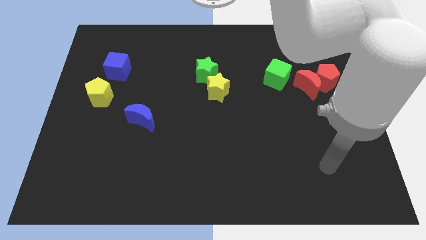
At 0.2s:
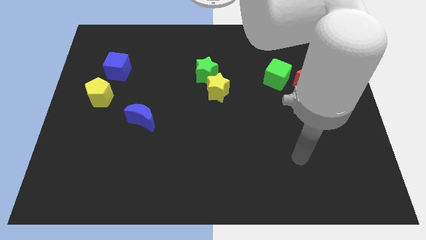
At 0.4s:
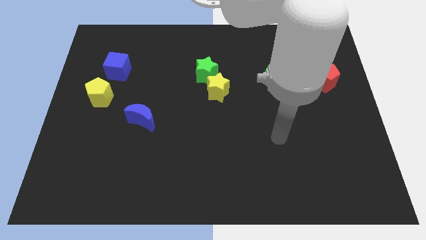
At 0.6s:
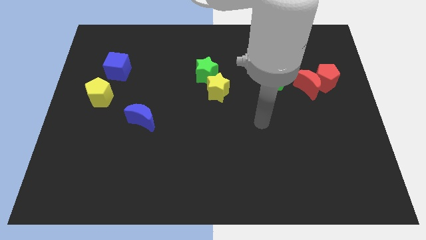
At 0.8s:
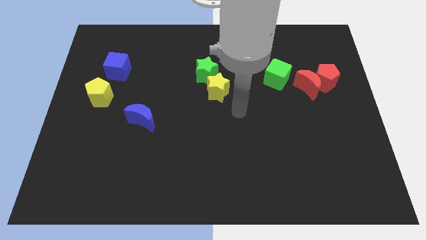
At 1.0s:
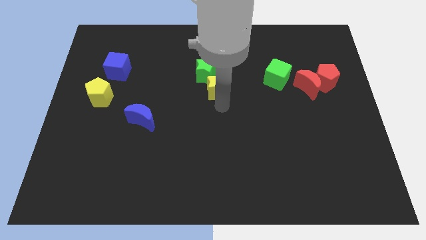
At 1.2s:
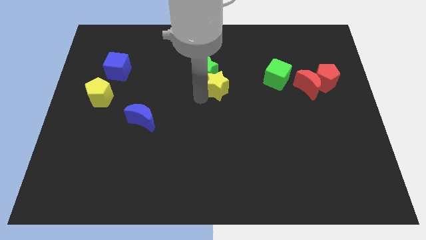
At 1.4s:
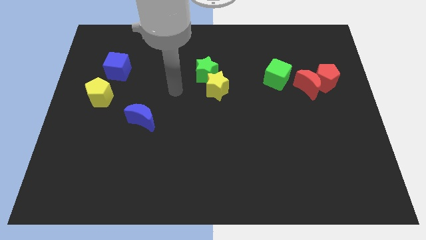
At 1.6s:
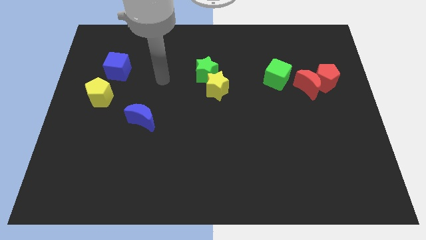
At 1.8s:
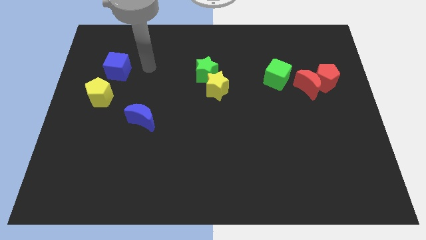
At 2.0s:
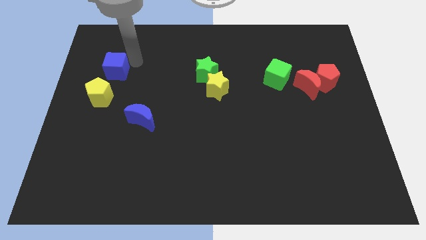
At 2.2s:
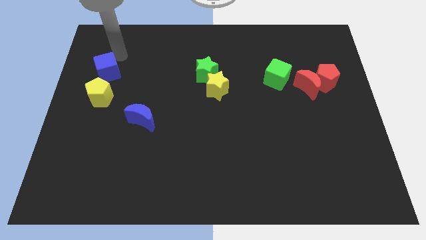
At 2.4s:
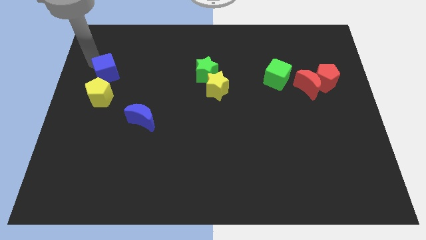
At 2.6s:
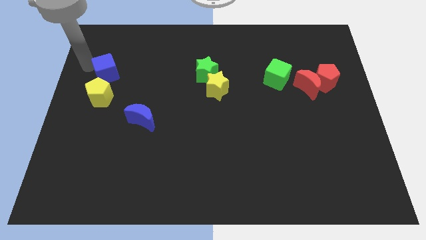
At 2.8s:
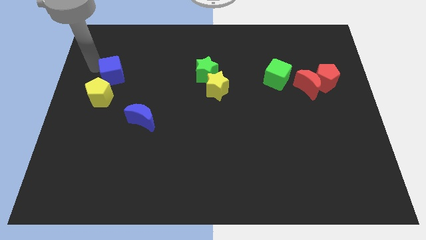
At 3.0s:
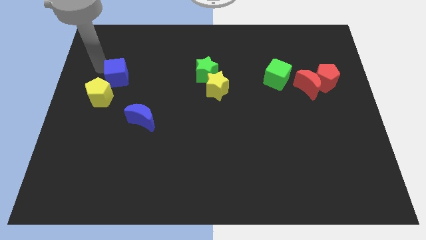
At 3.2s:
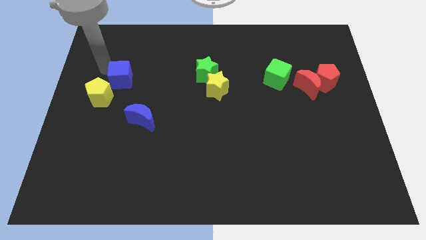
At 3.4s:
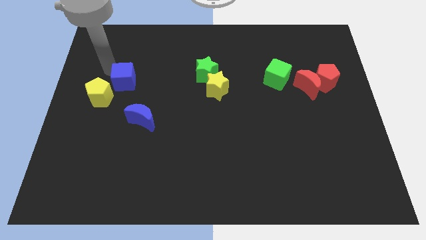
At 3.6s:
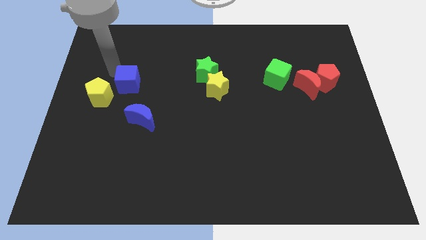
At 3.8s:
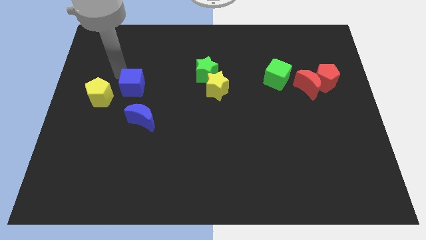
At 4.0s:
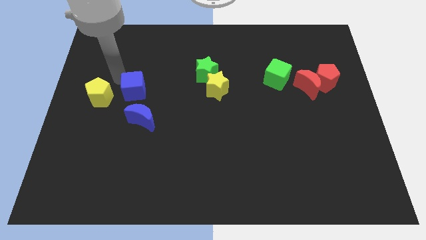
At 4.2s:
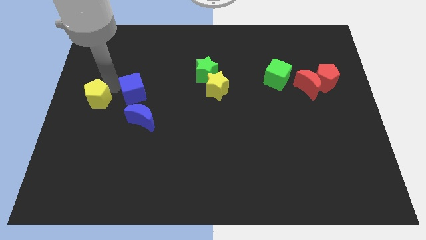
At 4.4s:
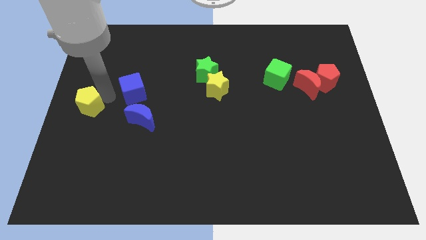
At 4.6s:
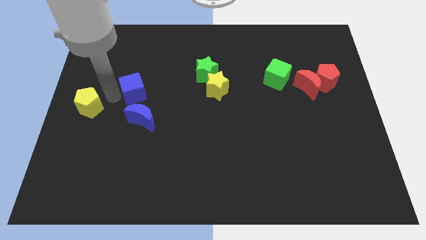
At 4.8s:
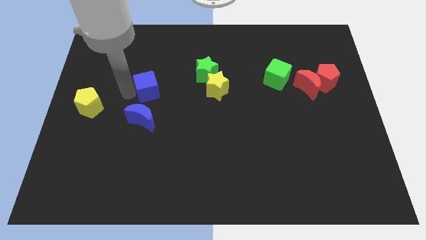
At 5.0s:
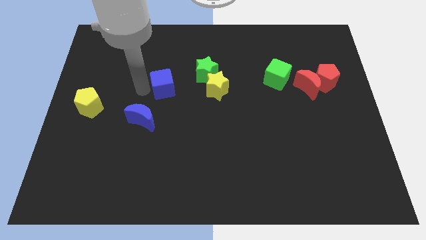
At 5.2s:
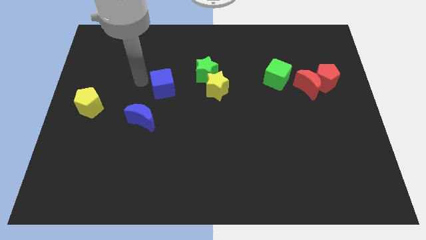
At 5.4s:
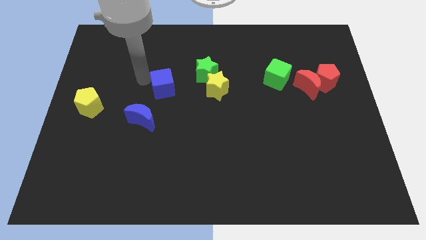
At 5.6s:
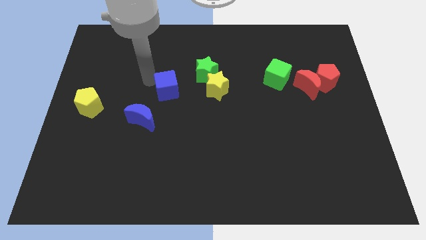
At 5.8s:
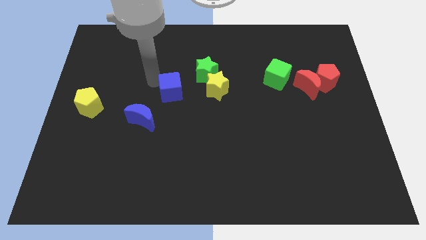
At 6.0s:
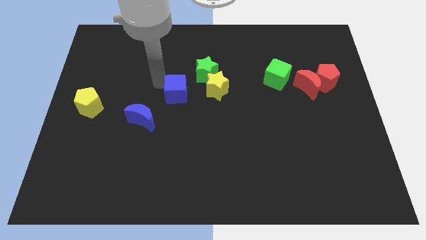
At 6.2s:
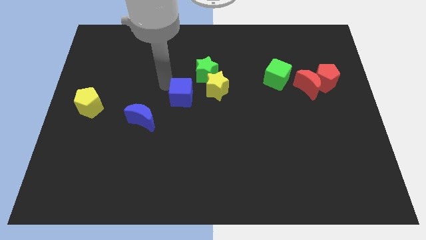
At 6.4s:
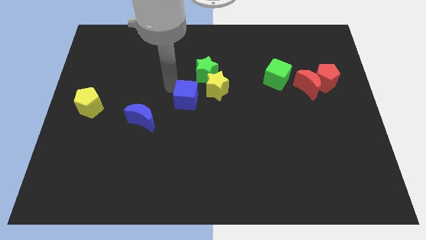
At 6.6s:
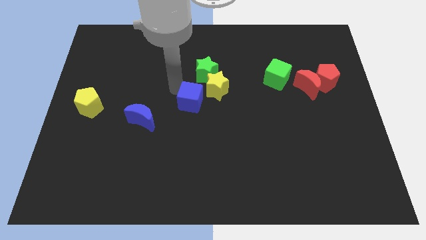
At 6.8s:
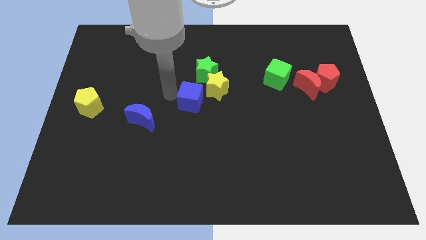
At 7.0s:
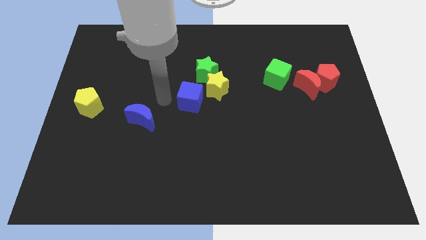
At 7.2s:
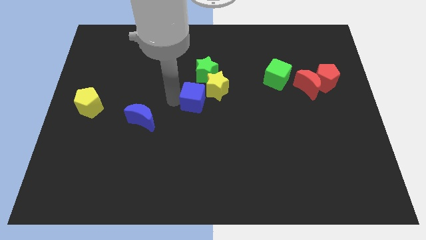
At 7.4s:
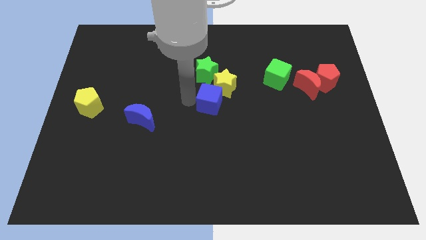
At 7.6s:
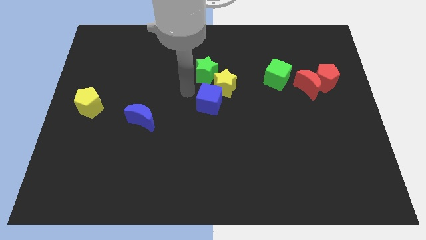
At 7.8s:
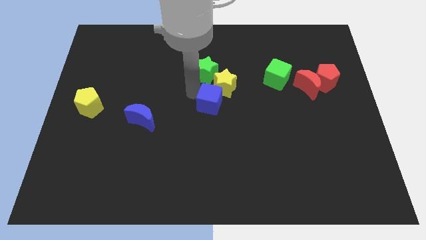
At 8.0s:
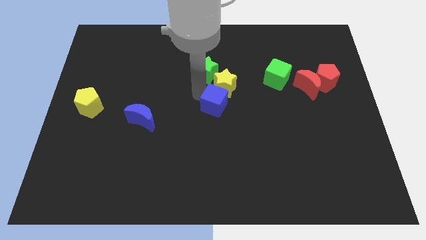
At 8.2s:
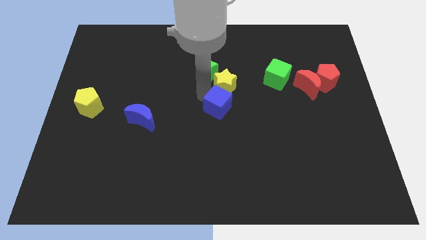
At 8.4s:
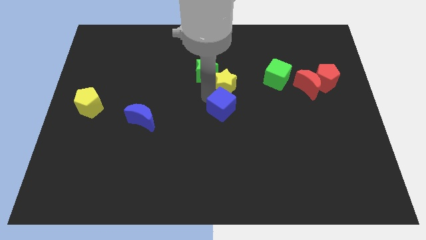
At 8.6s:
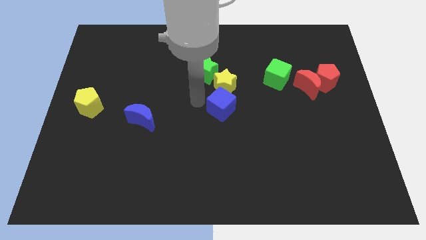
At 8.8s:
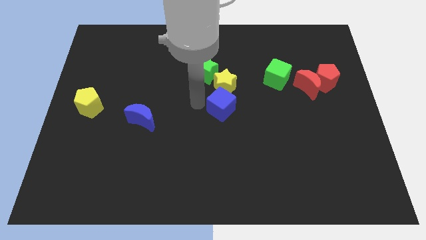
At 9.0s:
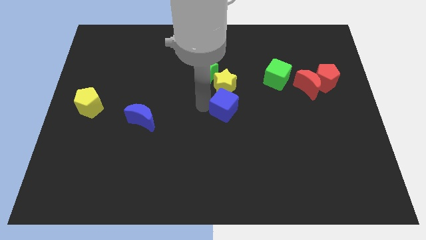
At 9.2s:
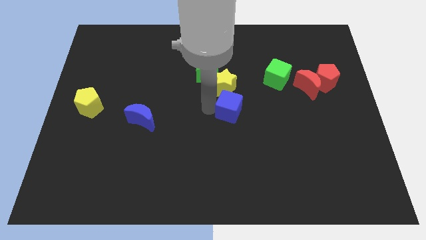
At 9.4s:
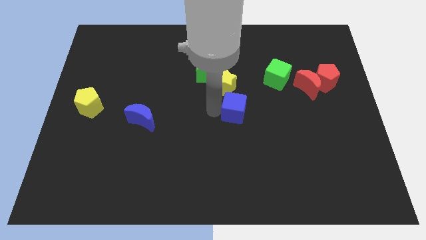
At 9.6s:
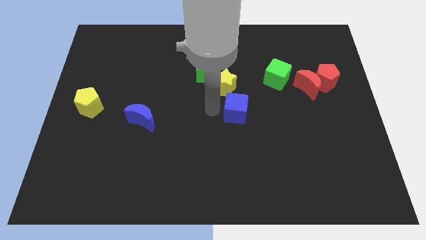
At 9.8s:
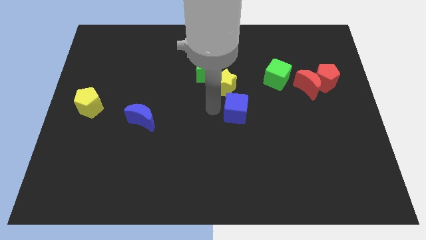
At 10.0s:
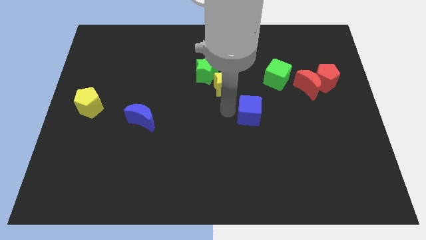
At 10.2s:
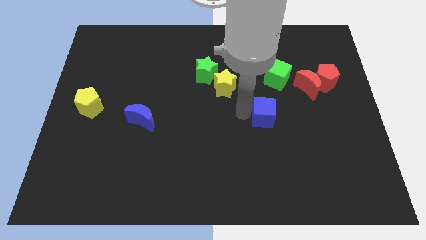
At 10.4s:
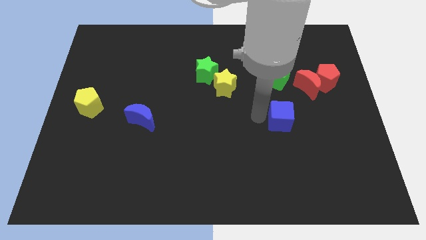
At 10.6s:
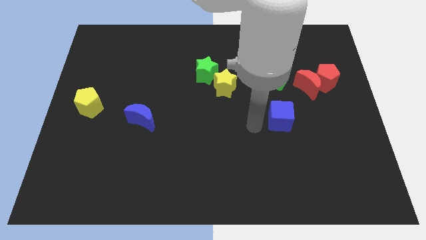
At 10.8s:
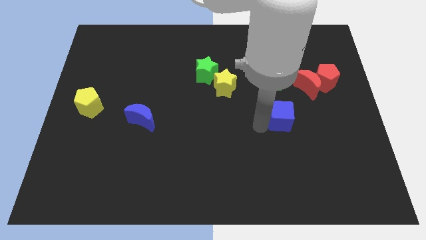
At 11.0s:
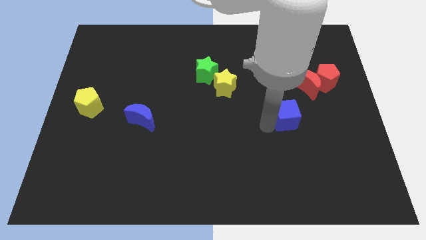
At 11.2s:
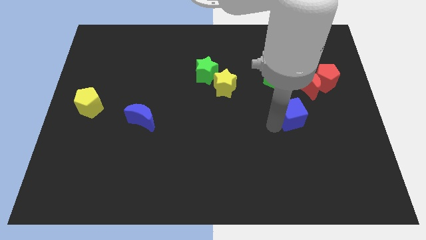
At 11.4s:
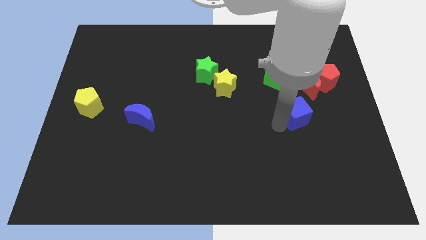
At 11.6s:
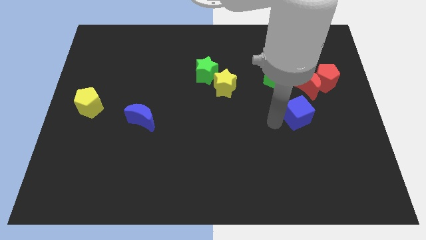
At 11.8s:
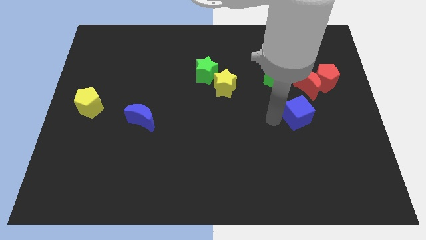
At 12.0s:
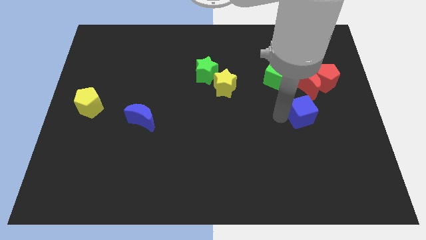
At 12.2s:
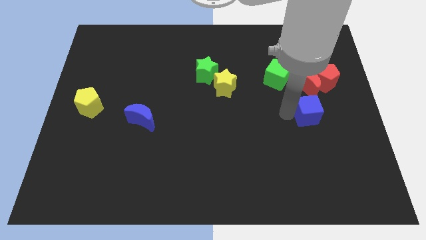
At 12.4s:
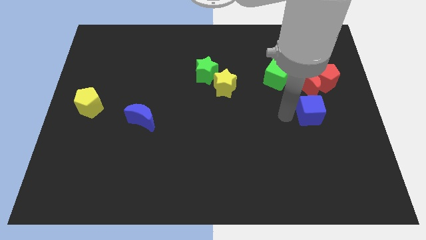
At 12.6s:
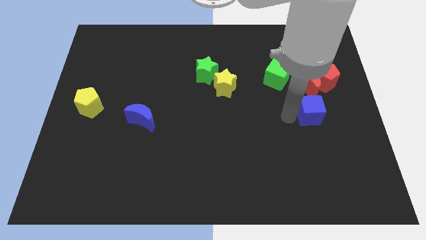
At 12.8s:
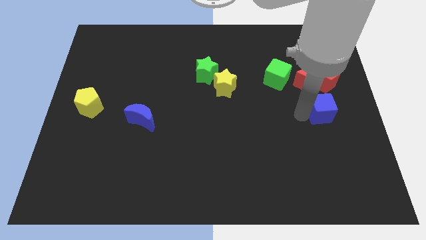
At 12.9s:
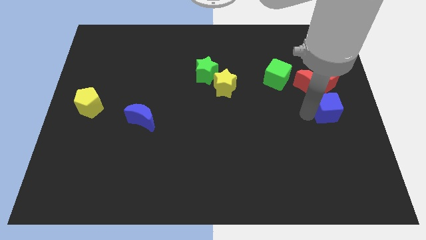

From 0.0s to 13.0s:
slide the blue cube to the center right
